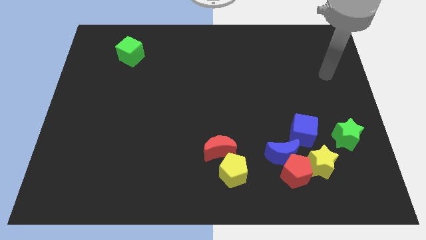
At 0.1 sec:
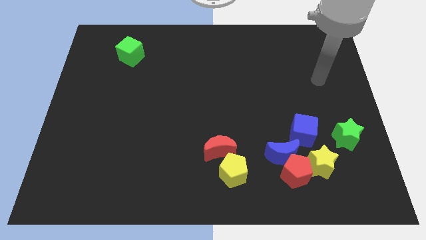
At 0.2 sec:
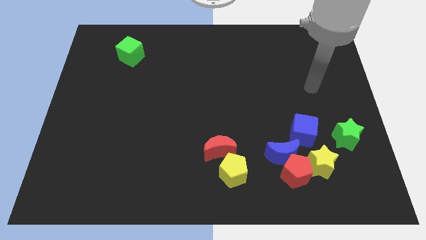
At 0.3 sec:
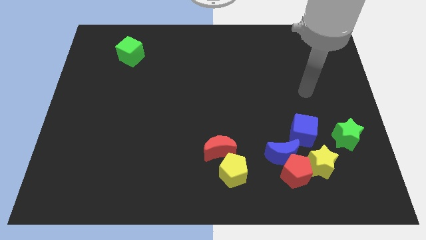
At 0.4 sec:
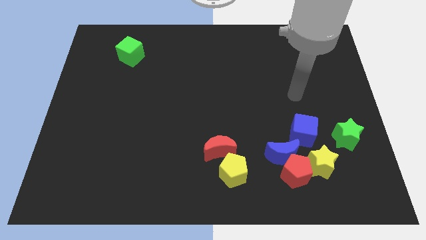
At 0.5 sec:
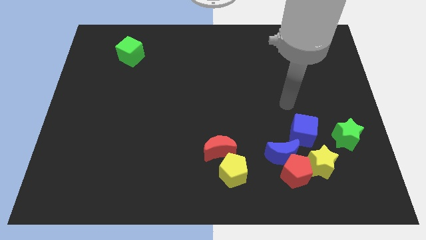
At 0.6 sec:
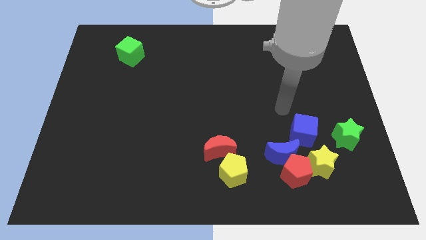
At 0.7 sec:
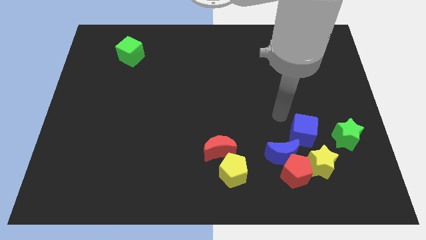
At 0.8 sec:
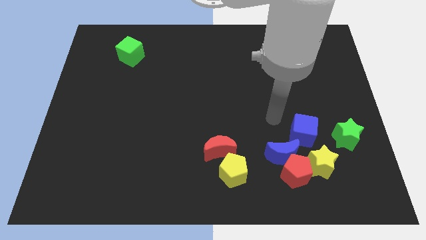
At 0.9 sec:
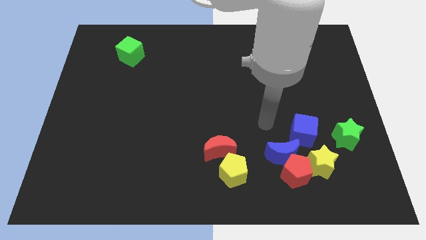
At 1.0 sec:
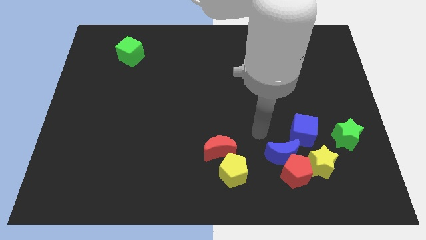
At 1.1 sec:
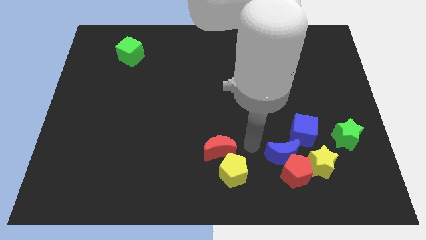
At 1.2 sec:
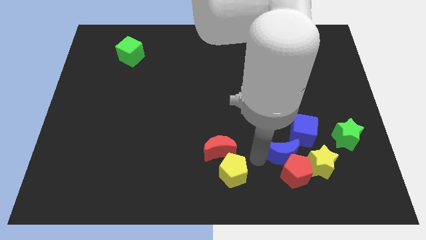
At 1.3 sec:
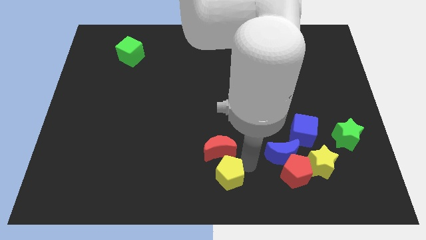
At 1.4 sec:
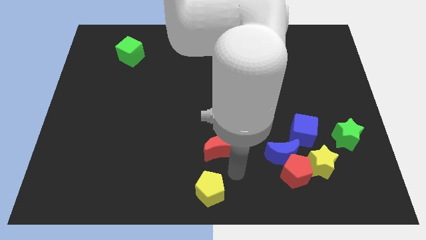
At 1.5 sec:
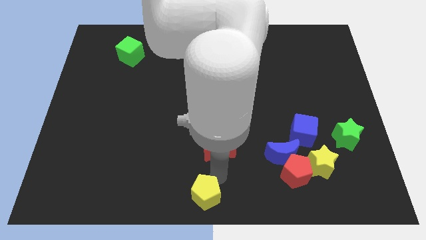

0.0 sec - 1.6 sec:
pull the red moon apart from the yellow pentagon

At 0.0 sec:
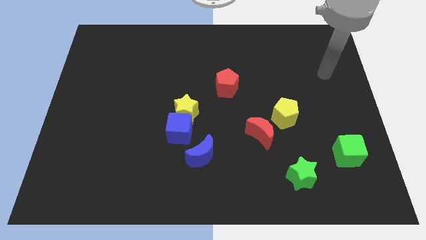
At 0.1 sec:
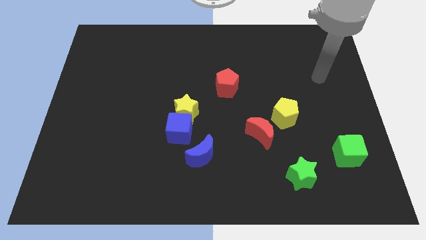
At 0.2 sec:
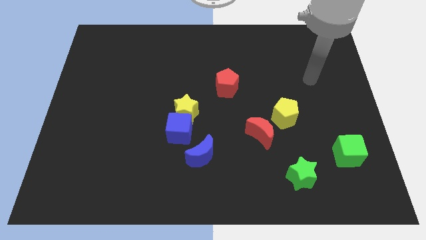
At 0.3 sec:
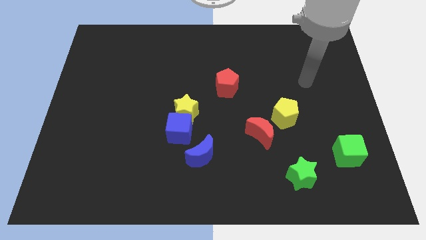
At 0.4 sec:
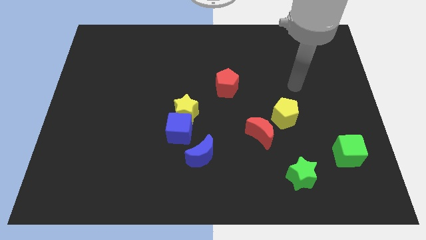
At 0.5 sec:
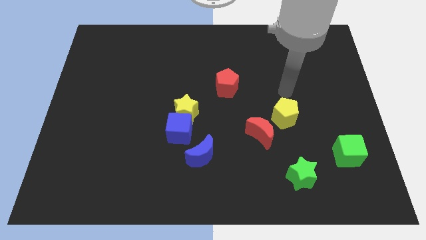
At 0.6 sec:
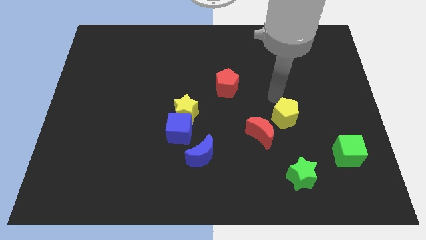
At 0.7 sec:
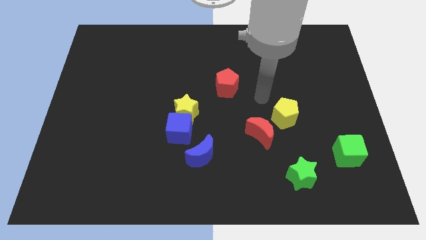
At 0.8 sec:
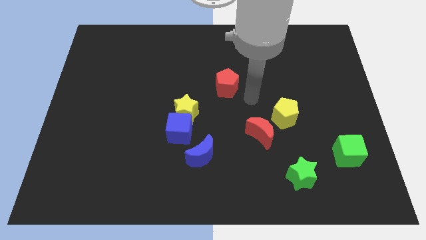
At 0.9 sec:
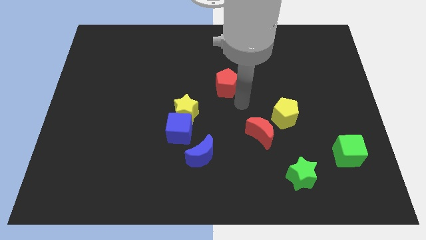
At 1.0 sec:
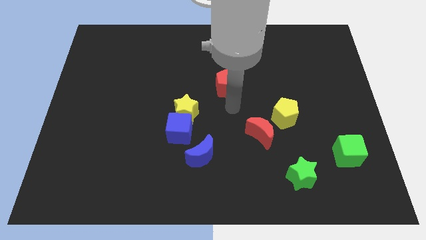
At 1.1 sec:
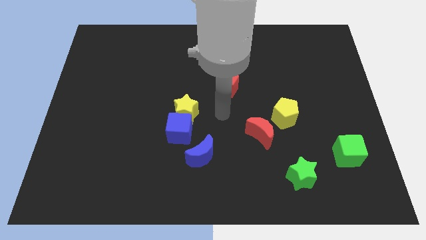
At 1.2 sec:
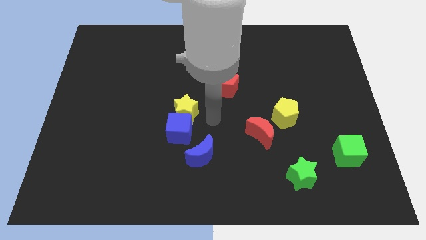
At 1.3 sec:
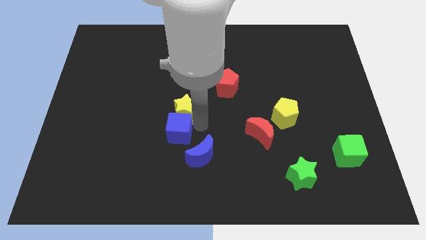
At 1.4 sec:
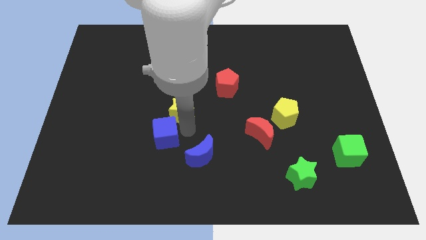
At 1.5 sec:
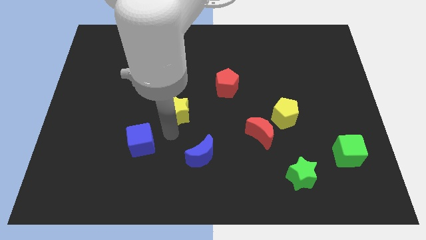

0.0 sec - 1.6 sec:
separate the yellow star from the blue cube

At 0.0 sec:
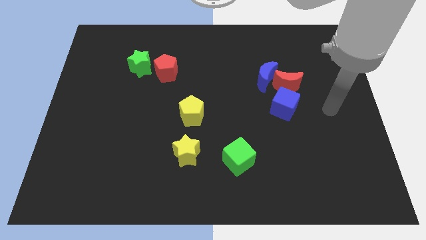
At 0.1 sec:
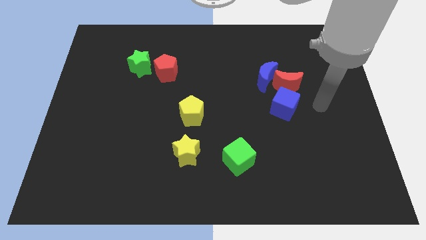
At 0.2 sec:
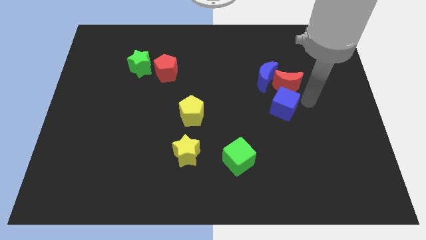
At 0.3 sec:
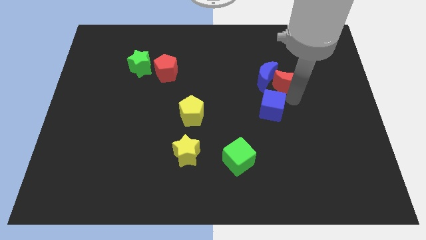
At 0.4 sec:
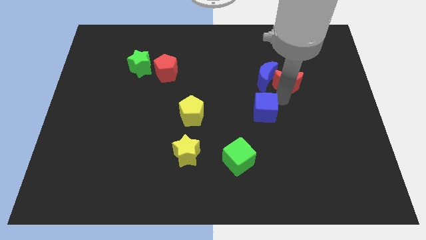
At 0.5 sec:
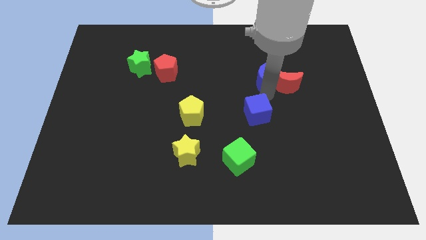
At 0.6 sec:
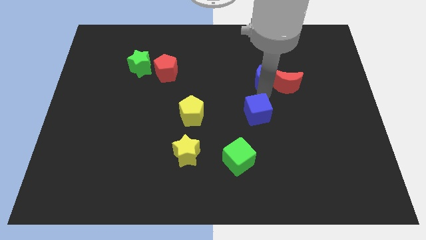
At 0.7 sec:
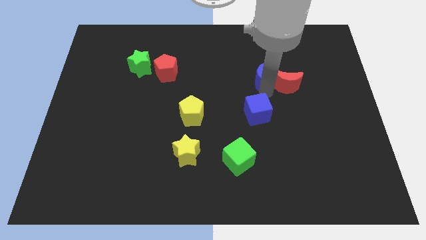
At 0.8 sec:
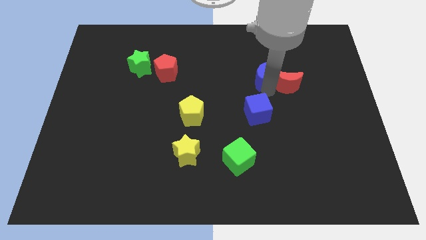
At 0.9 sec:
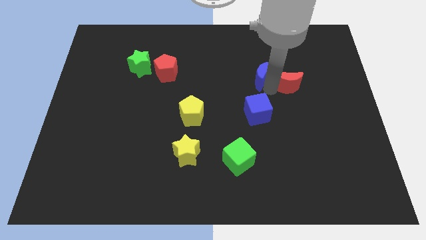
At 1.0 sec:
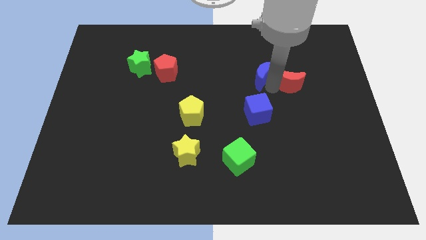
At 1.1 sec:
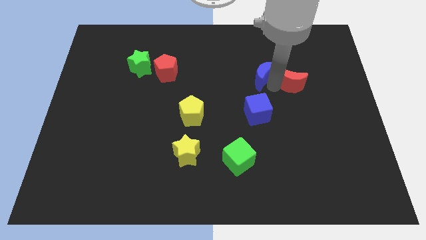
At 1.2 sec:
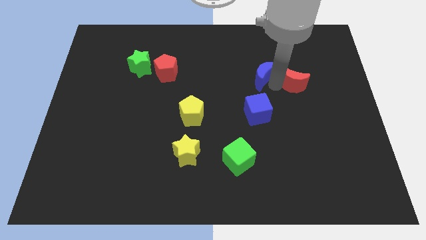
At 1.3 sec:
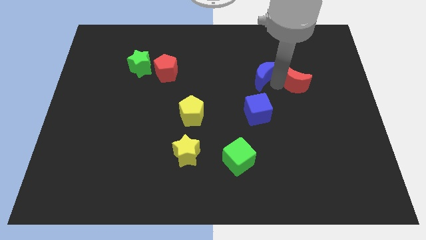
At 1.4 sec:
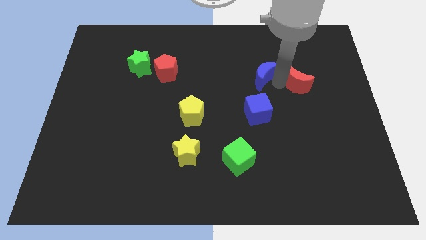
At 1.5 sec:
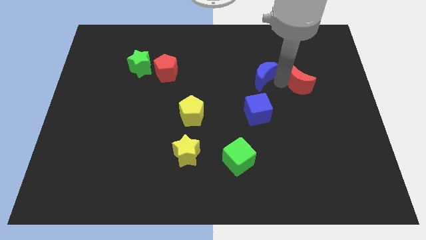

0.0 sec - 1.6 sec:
pull the red moon apart from the blue moon and blue cube

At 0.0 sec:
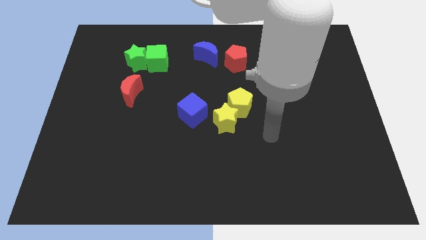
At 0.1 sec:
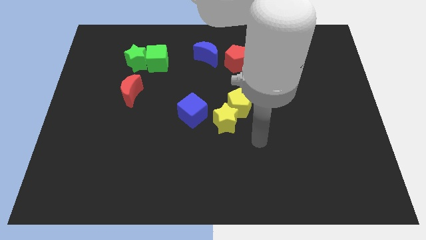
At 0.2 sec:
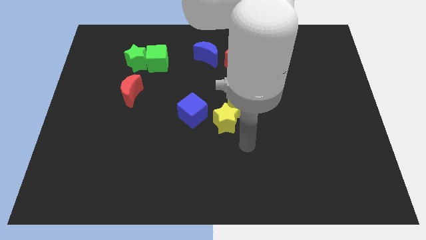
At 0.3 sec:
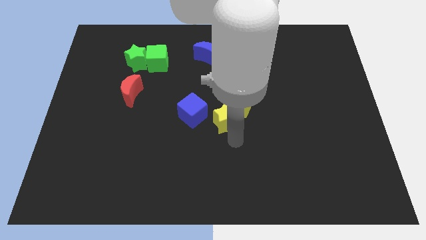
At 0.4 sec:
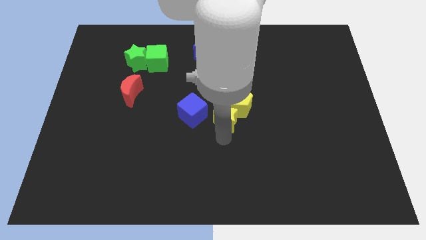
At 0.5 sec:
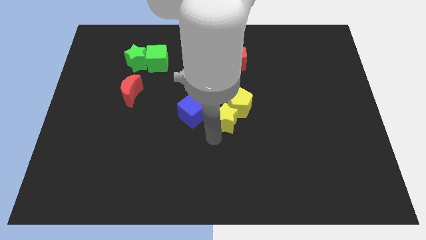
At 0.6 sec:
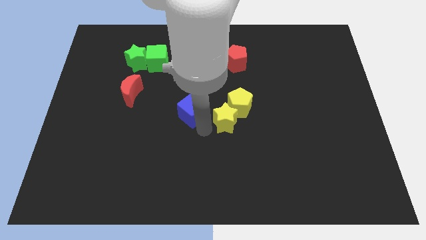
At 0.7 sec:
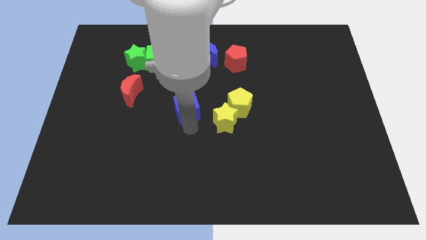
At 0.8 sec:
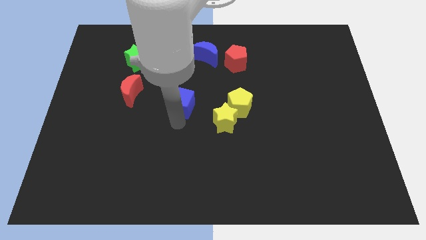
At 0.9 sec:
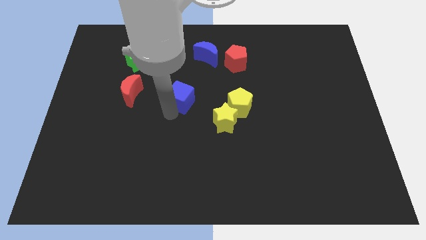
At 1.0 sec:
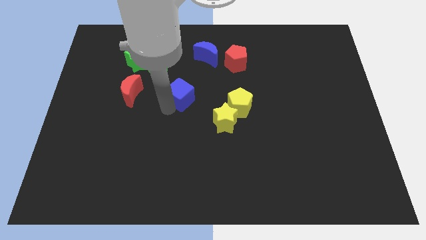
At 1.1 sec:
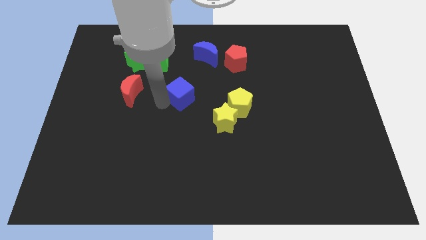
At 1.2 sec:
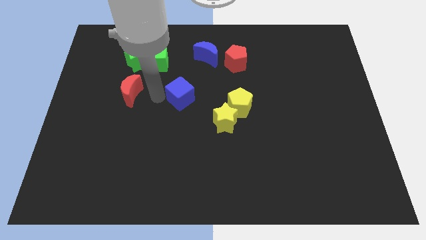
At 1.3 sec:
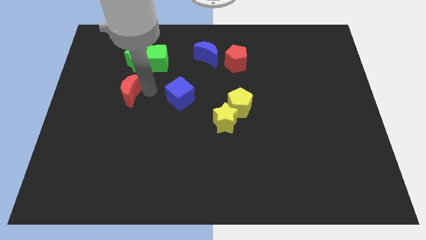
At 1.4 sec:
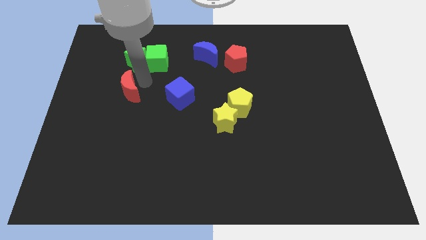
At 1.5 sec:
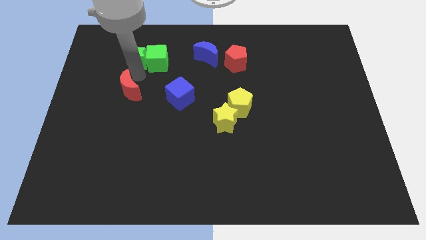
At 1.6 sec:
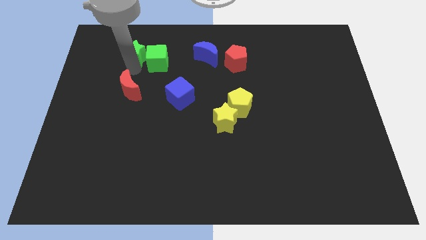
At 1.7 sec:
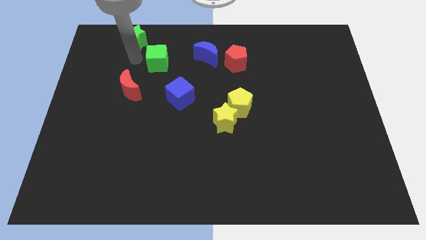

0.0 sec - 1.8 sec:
pull the green cube apart from the green star

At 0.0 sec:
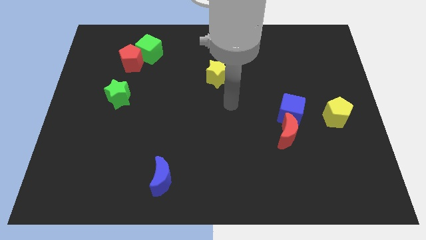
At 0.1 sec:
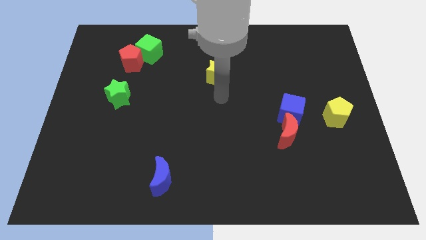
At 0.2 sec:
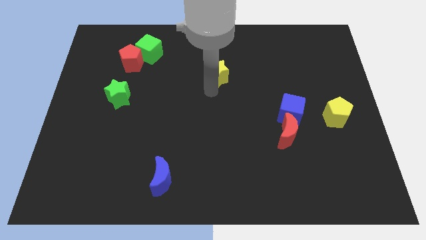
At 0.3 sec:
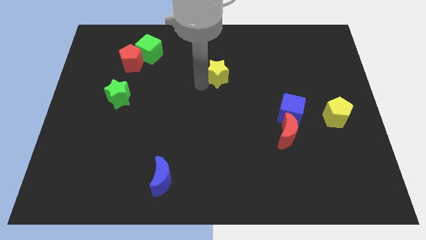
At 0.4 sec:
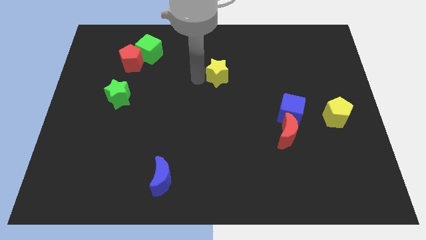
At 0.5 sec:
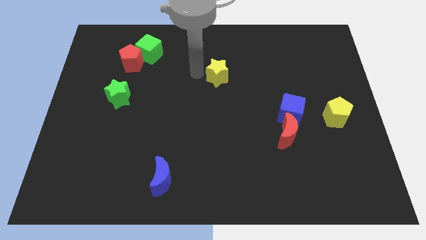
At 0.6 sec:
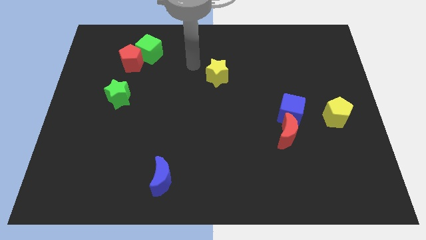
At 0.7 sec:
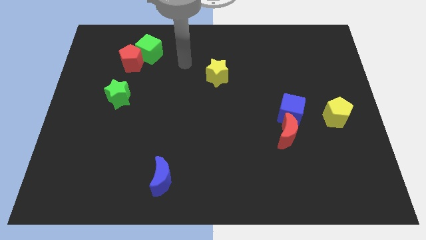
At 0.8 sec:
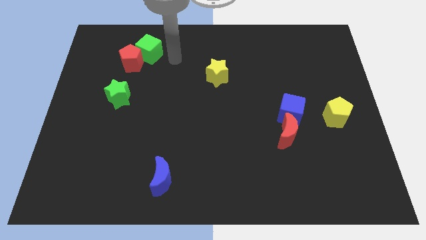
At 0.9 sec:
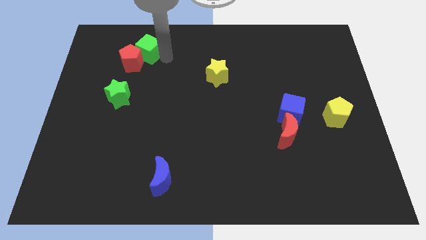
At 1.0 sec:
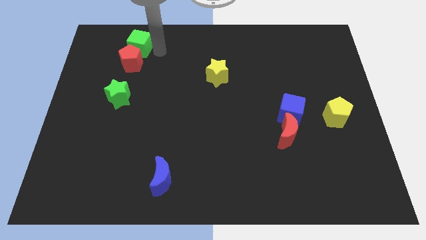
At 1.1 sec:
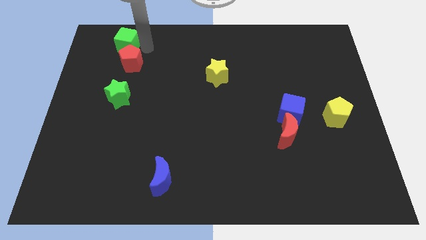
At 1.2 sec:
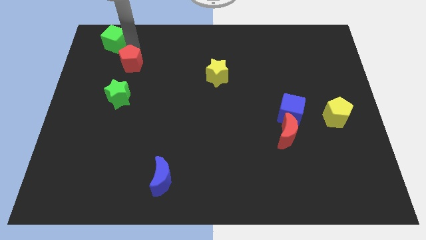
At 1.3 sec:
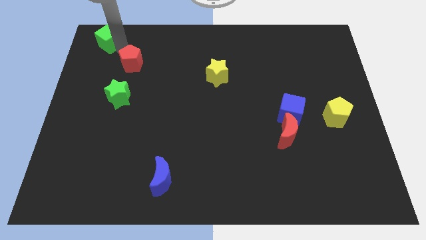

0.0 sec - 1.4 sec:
move the red pentagon away from the green cube

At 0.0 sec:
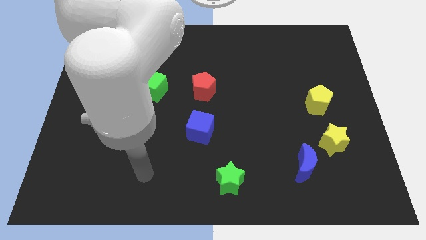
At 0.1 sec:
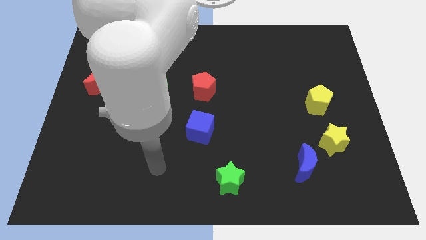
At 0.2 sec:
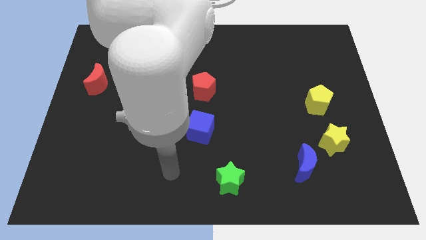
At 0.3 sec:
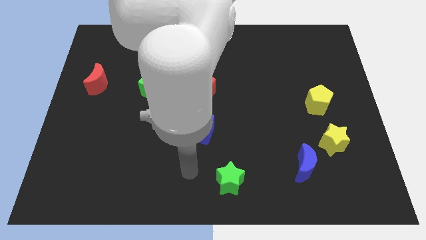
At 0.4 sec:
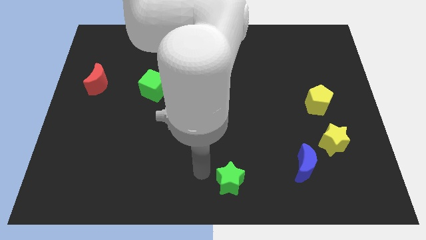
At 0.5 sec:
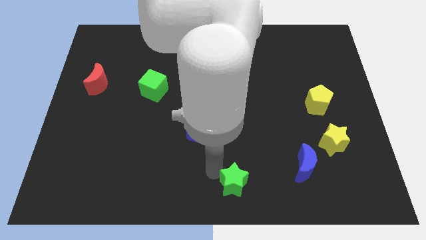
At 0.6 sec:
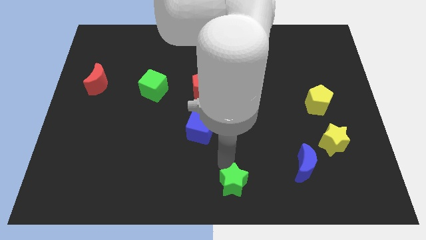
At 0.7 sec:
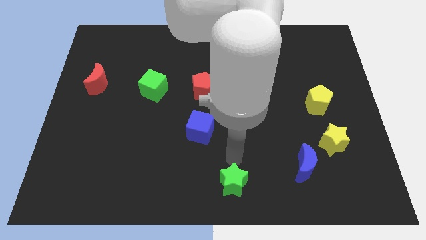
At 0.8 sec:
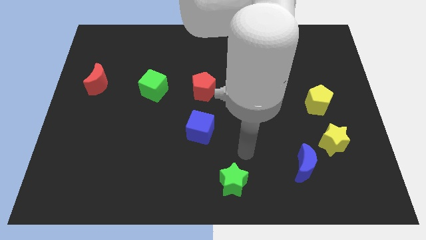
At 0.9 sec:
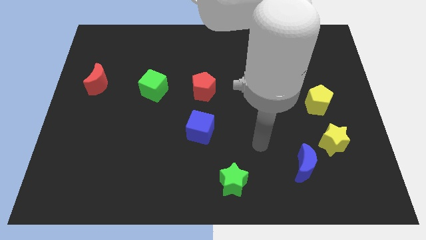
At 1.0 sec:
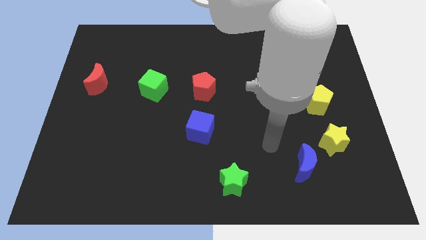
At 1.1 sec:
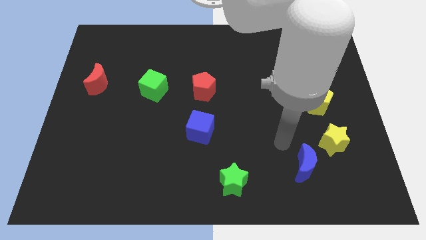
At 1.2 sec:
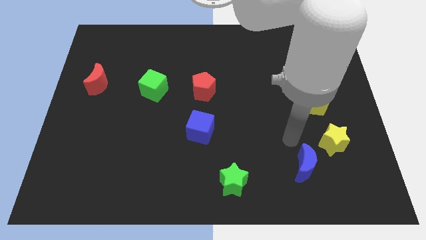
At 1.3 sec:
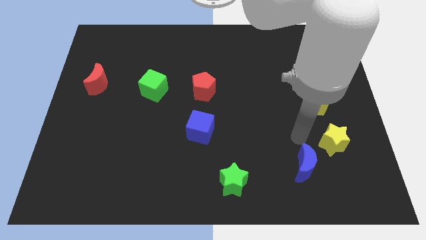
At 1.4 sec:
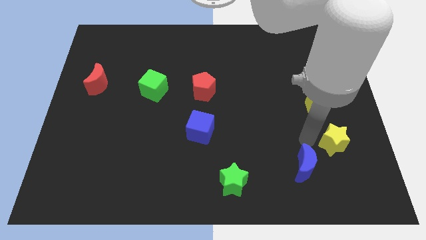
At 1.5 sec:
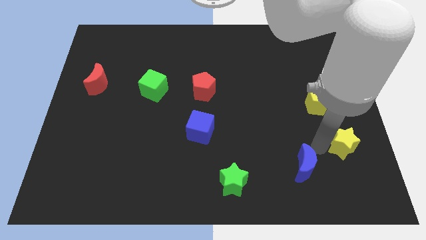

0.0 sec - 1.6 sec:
move the blue moon away from the yellow star
